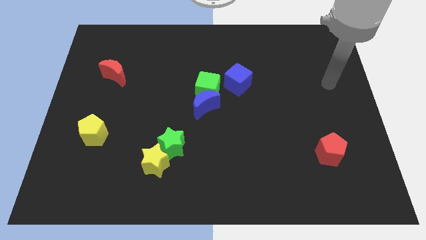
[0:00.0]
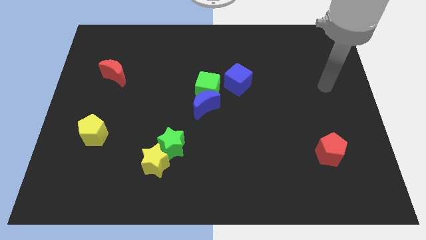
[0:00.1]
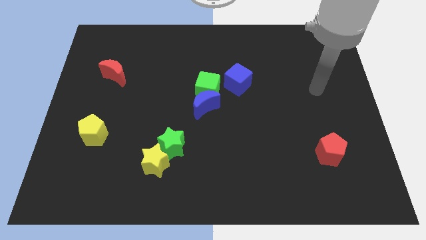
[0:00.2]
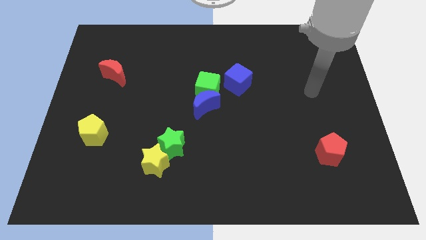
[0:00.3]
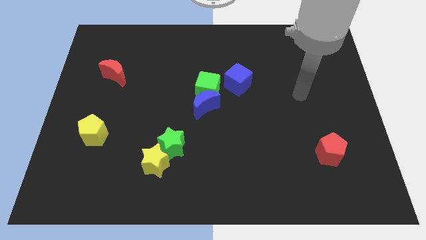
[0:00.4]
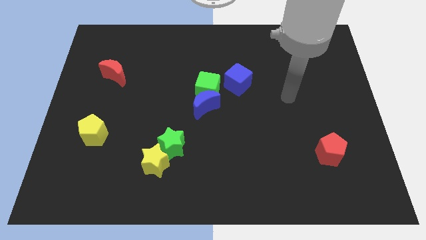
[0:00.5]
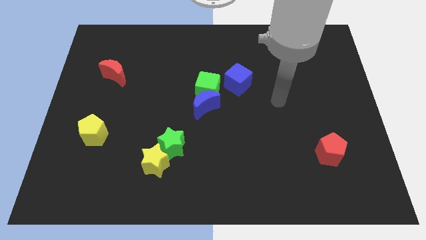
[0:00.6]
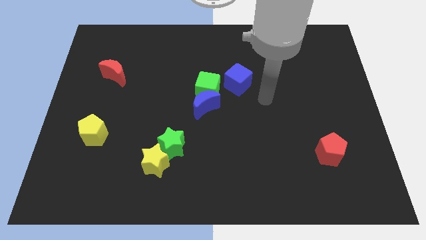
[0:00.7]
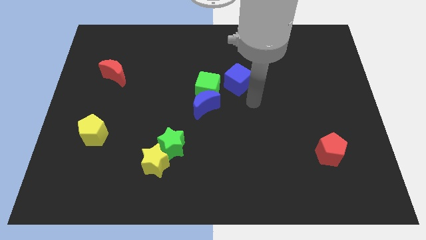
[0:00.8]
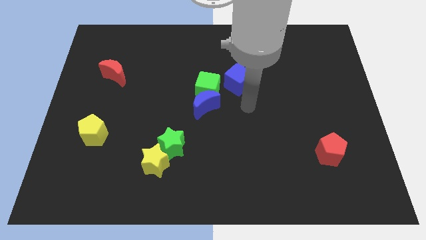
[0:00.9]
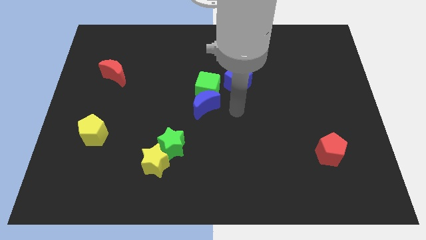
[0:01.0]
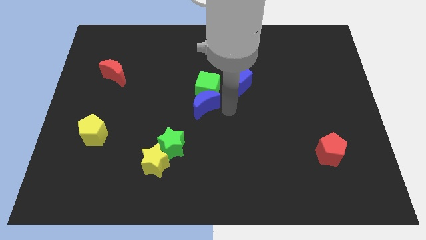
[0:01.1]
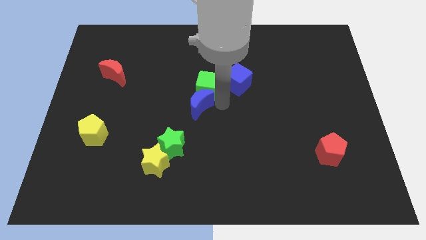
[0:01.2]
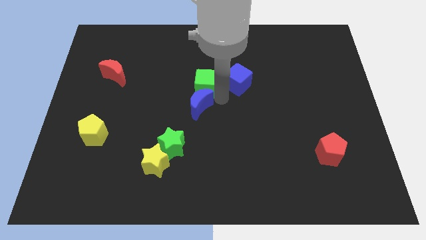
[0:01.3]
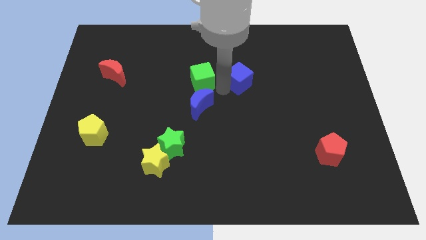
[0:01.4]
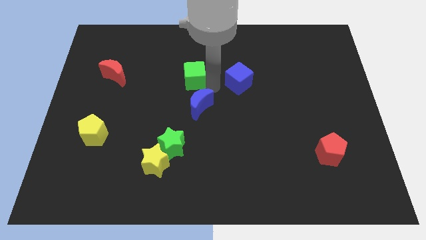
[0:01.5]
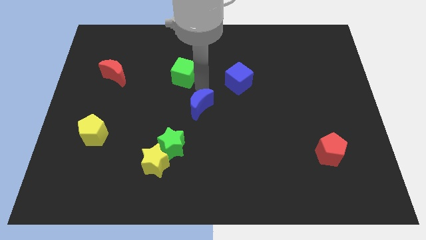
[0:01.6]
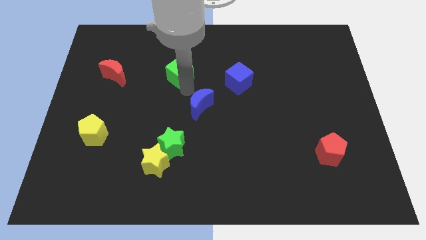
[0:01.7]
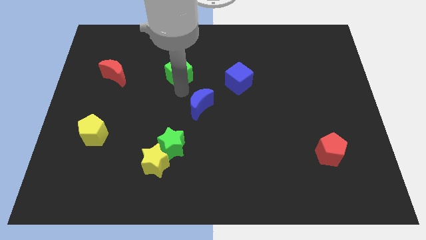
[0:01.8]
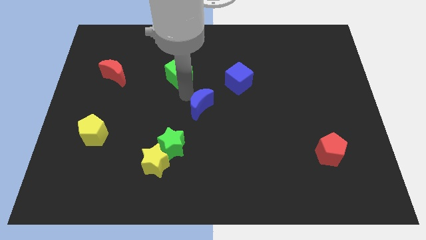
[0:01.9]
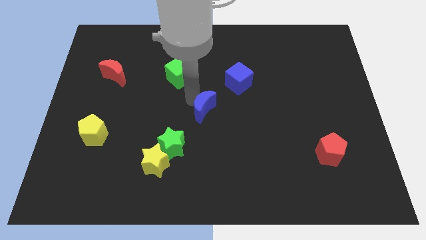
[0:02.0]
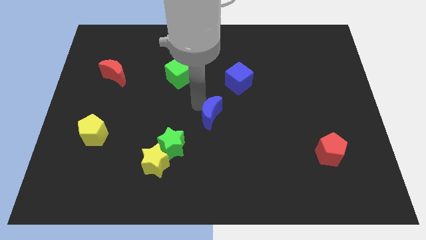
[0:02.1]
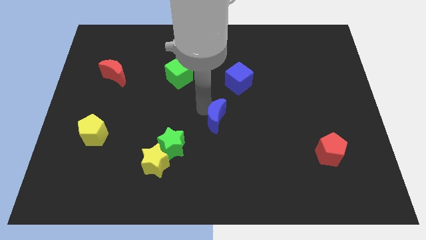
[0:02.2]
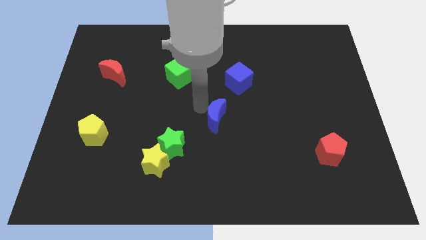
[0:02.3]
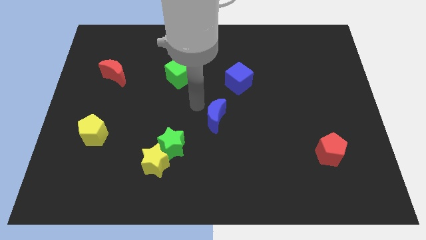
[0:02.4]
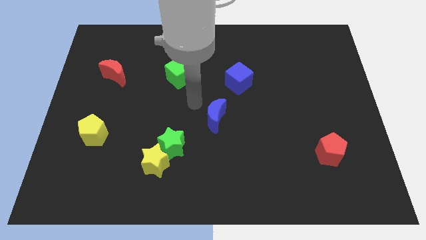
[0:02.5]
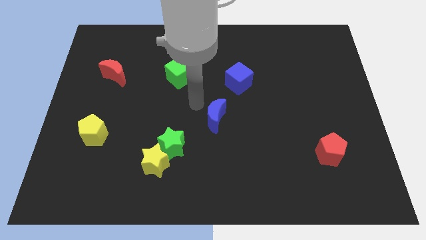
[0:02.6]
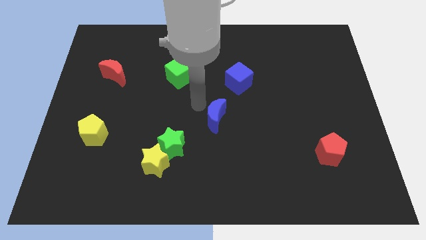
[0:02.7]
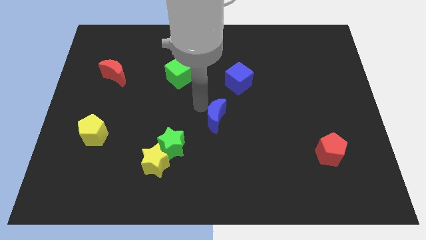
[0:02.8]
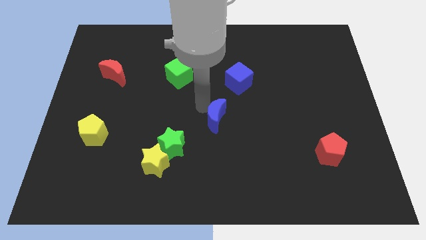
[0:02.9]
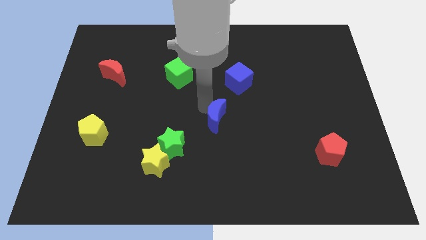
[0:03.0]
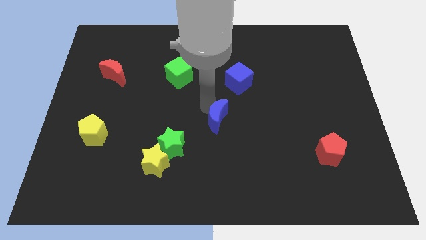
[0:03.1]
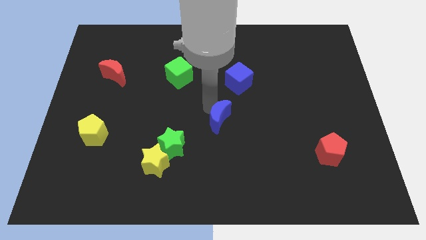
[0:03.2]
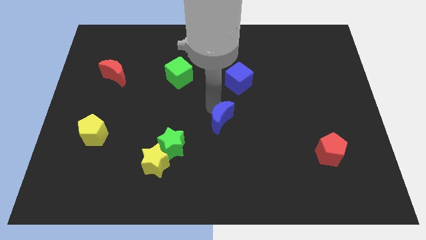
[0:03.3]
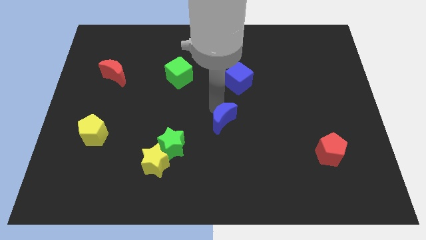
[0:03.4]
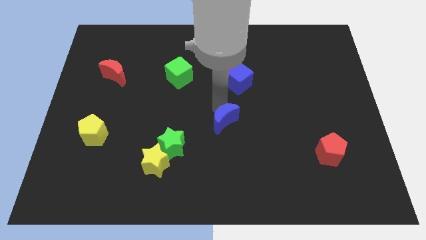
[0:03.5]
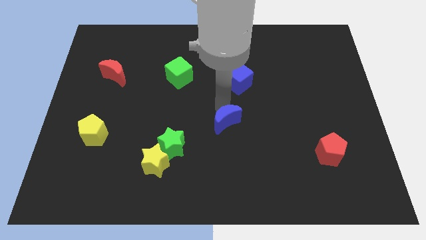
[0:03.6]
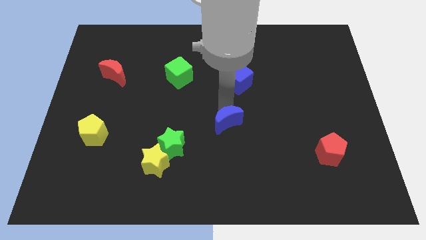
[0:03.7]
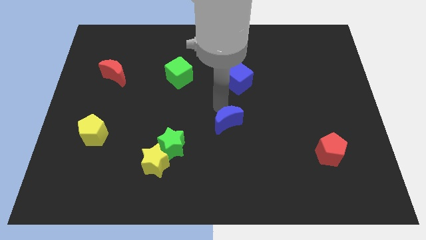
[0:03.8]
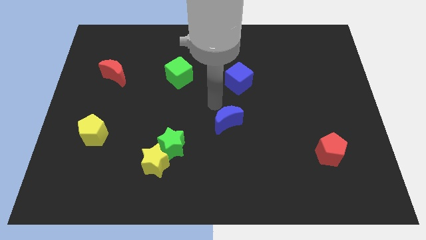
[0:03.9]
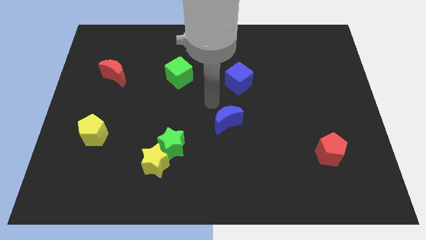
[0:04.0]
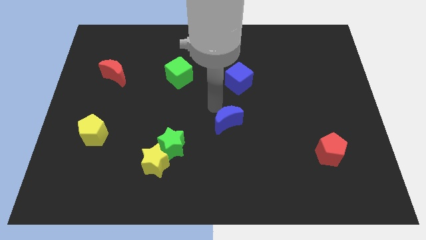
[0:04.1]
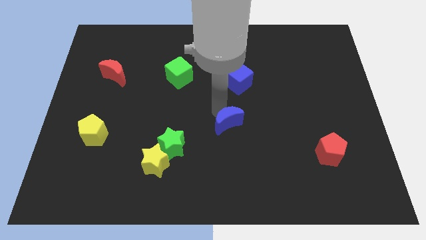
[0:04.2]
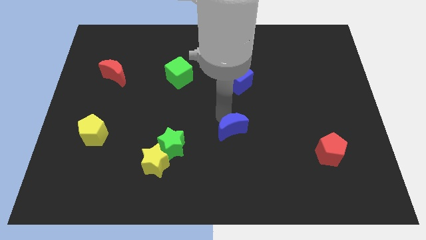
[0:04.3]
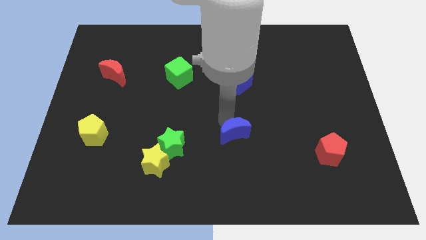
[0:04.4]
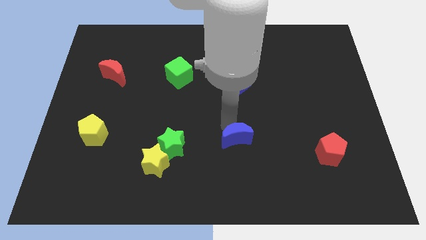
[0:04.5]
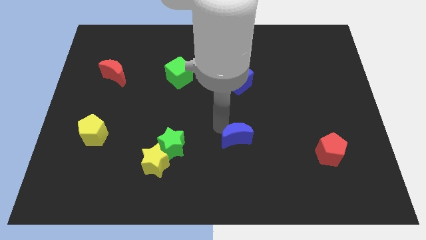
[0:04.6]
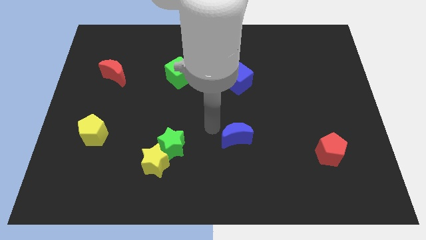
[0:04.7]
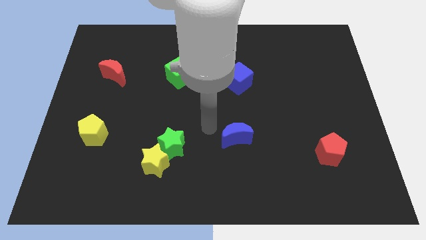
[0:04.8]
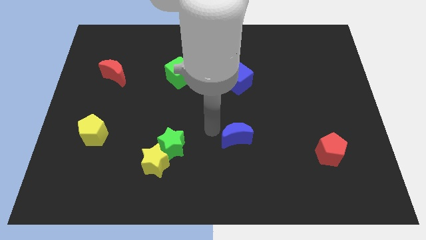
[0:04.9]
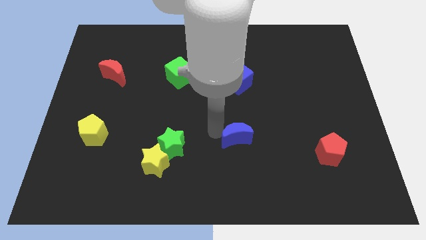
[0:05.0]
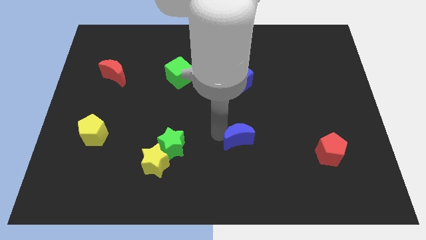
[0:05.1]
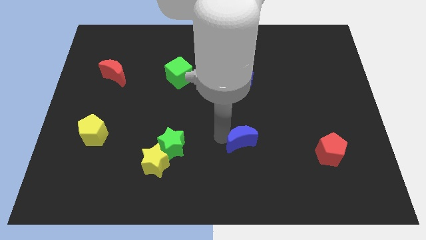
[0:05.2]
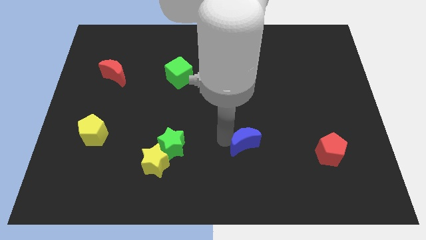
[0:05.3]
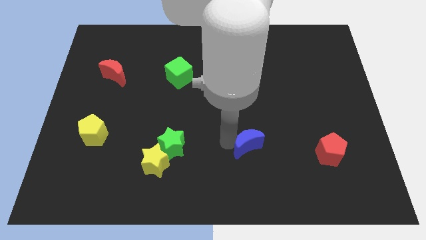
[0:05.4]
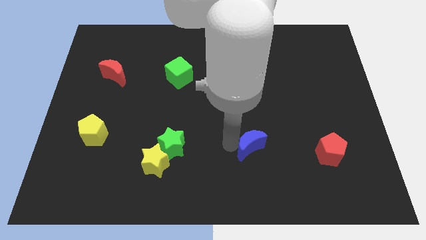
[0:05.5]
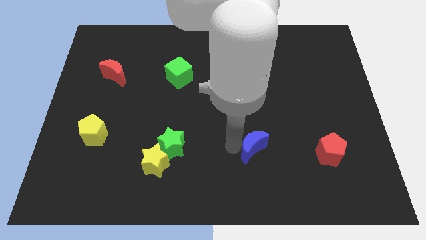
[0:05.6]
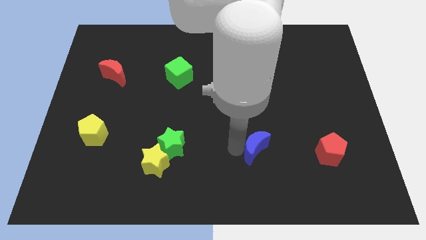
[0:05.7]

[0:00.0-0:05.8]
push the blue moon left of the red pentagon

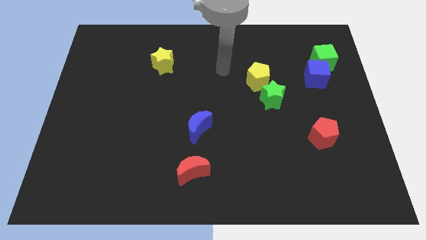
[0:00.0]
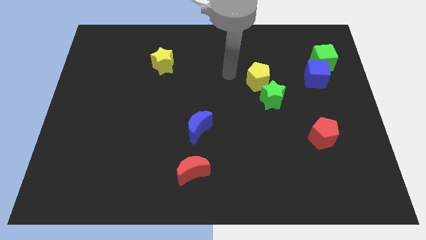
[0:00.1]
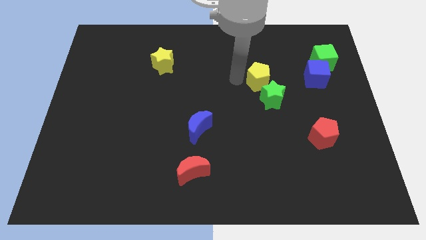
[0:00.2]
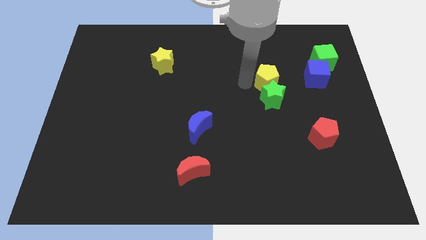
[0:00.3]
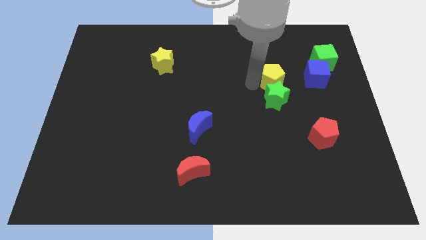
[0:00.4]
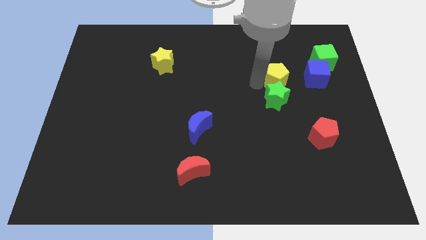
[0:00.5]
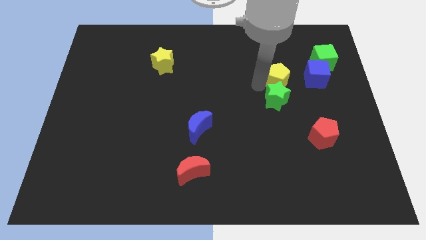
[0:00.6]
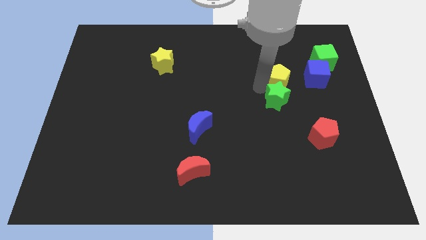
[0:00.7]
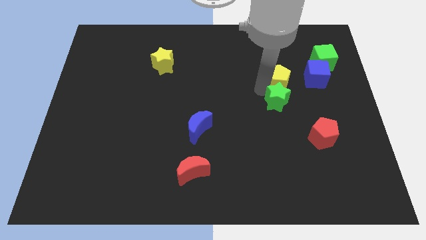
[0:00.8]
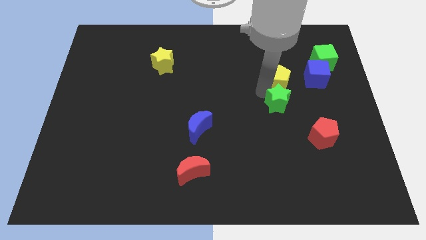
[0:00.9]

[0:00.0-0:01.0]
push the green star to the top left side of the red pentagon

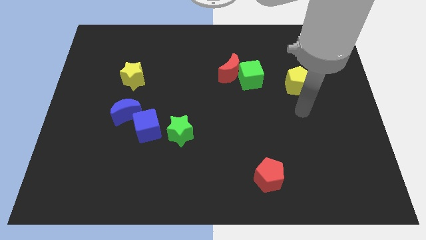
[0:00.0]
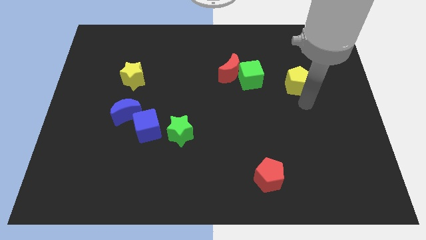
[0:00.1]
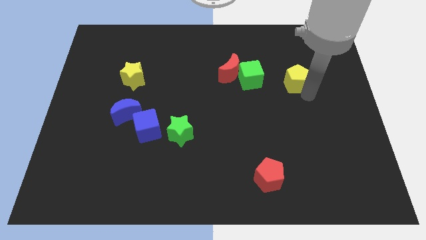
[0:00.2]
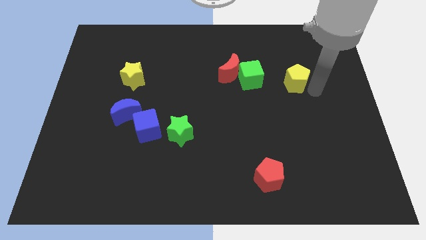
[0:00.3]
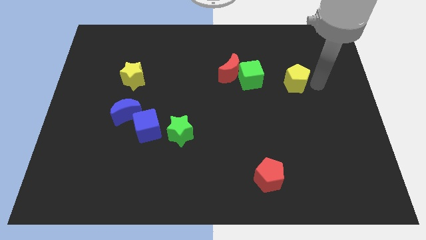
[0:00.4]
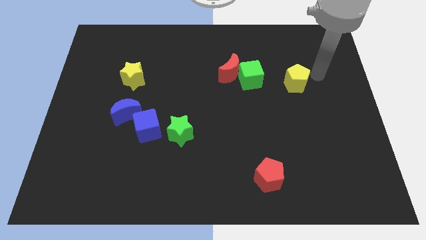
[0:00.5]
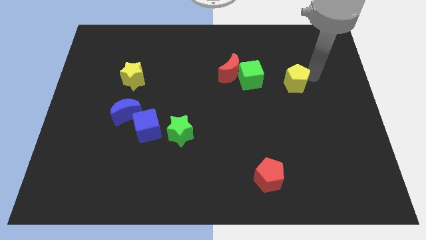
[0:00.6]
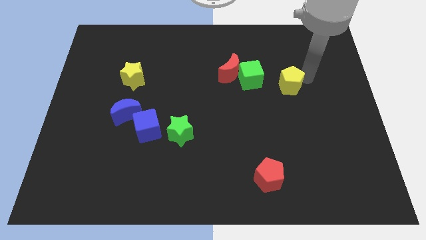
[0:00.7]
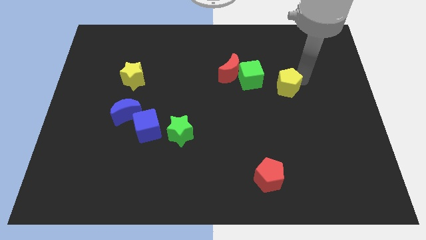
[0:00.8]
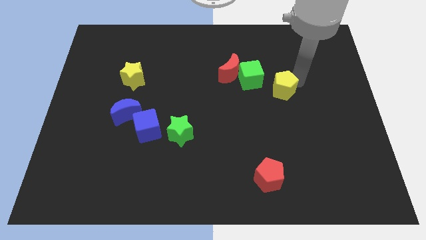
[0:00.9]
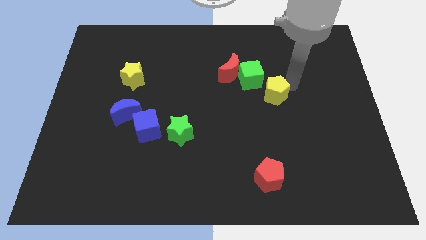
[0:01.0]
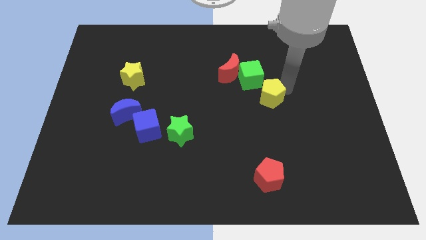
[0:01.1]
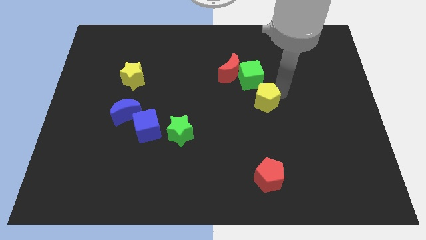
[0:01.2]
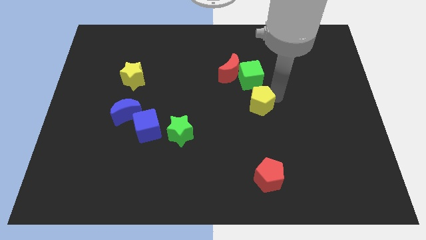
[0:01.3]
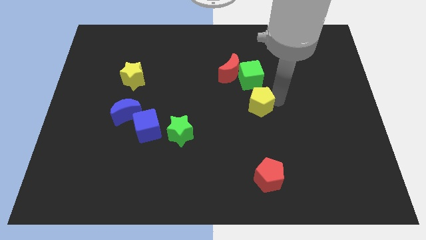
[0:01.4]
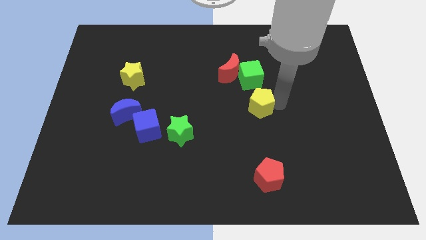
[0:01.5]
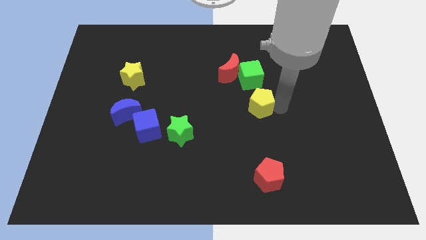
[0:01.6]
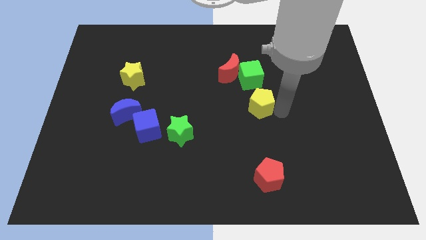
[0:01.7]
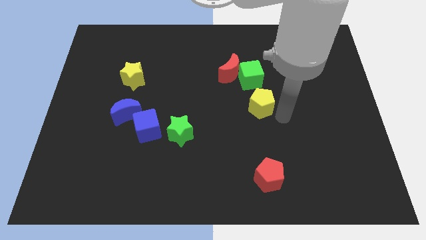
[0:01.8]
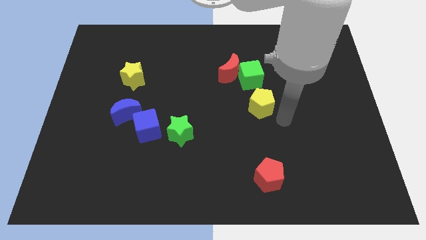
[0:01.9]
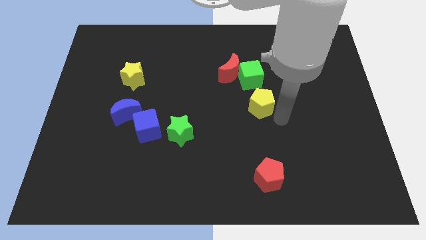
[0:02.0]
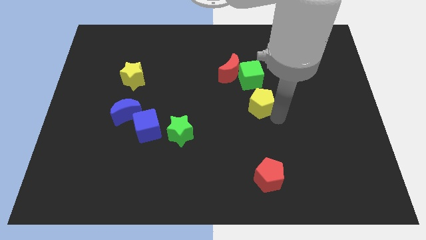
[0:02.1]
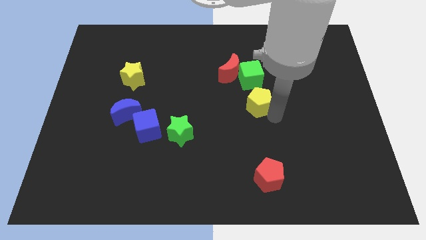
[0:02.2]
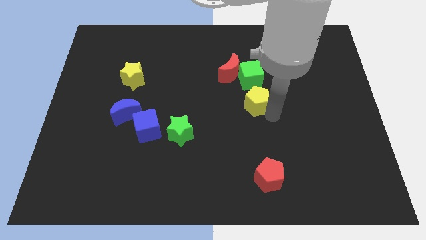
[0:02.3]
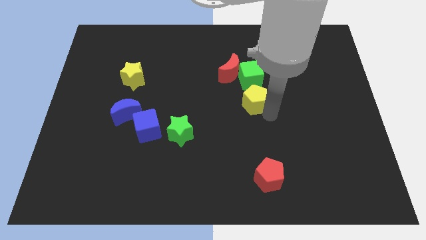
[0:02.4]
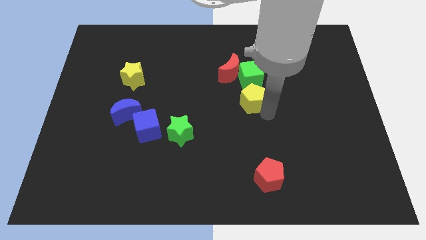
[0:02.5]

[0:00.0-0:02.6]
put the yellow pentagon below the red moon
